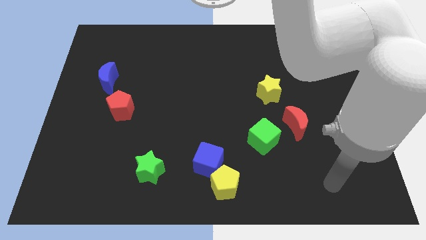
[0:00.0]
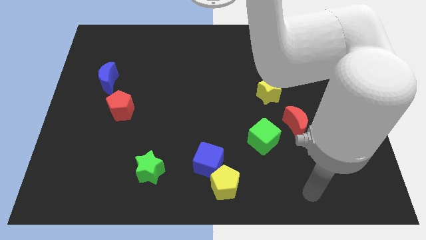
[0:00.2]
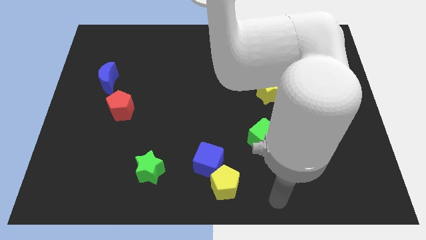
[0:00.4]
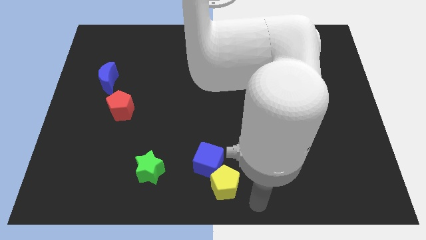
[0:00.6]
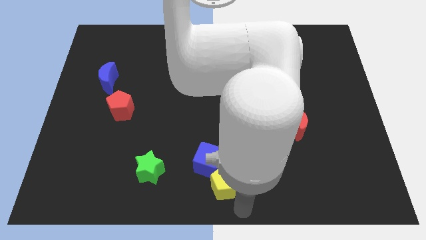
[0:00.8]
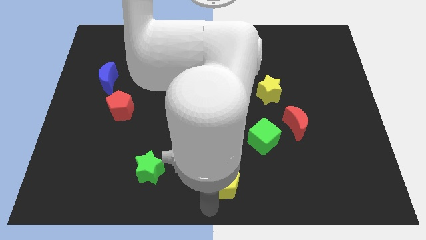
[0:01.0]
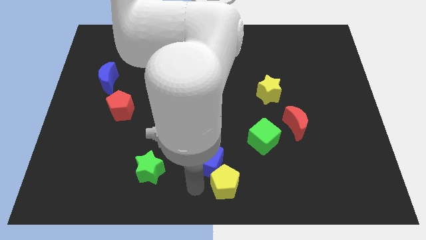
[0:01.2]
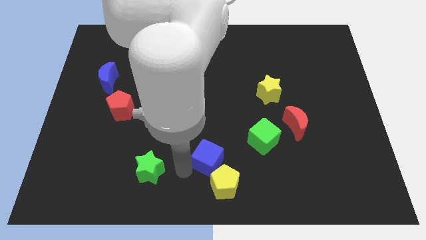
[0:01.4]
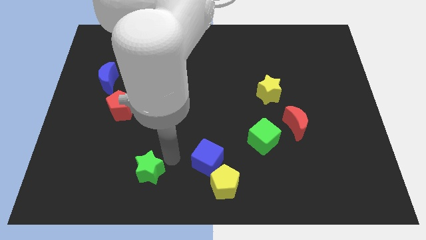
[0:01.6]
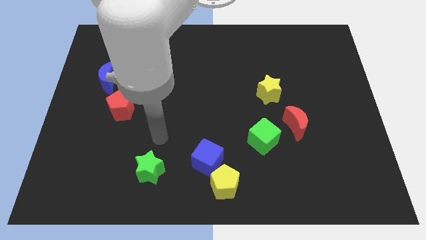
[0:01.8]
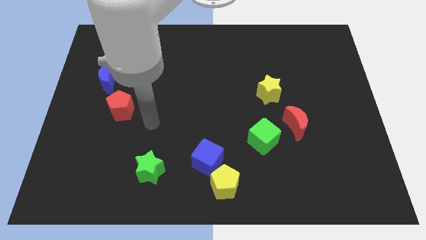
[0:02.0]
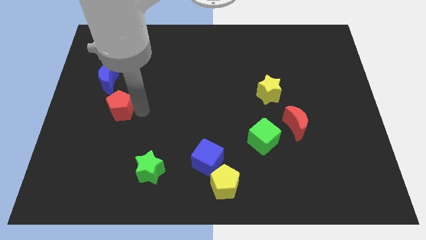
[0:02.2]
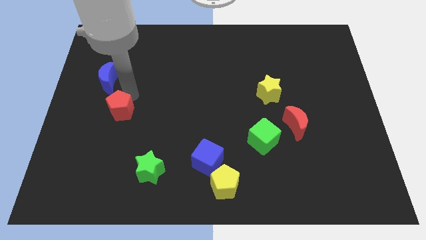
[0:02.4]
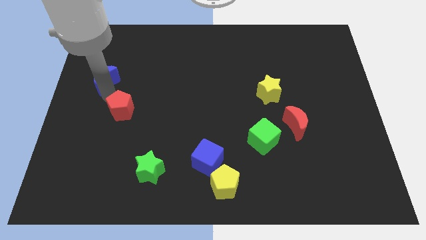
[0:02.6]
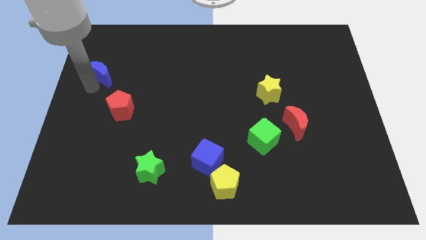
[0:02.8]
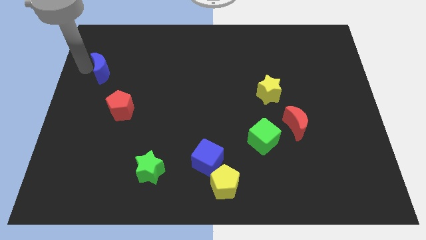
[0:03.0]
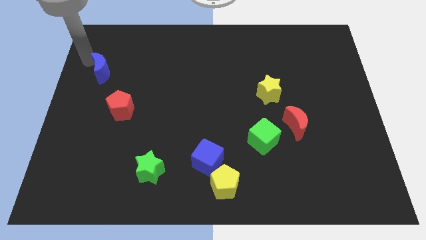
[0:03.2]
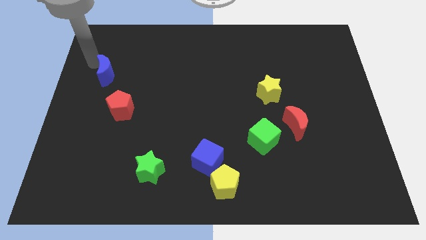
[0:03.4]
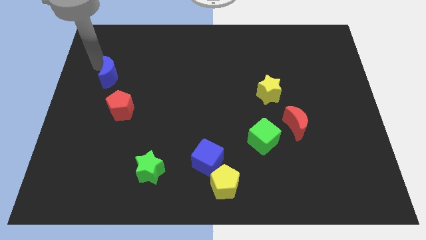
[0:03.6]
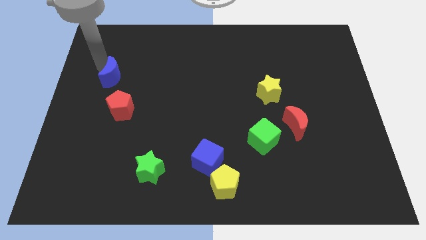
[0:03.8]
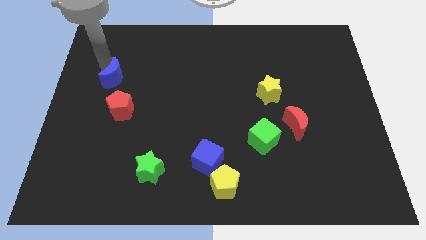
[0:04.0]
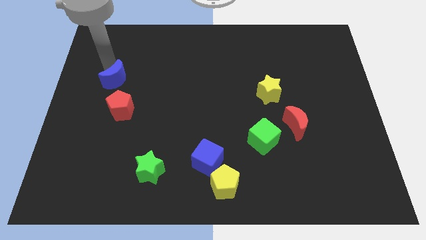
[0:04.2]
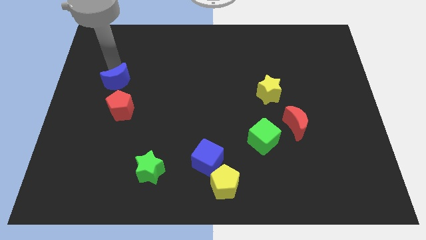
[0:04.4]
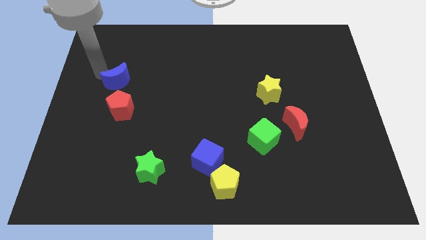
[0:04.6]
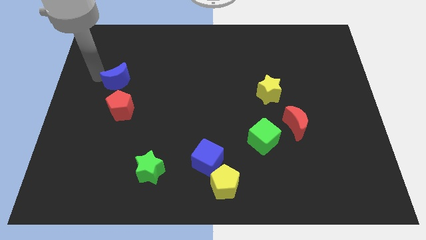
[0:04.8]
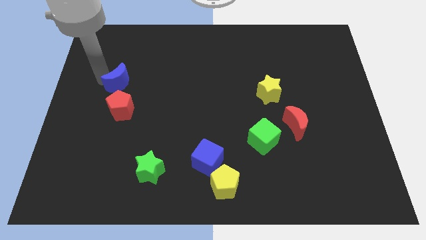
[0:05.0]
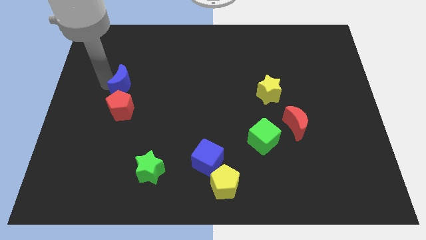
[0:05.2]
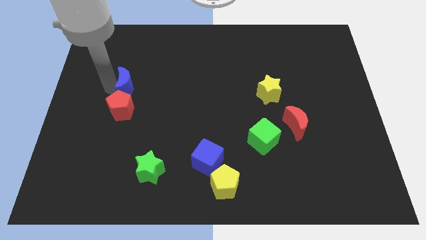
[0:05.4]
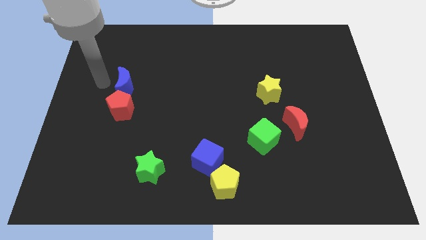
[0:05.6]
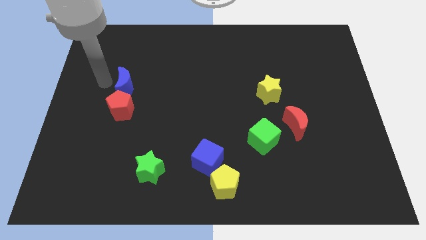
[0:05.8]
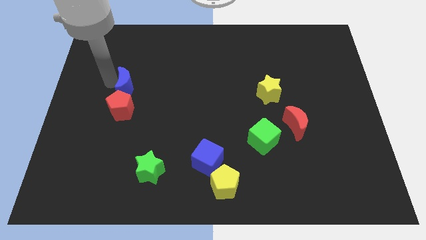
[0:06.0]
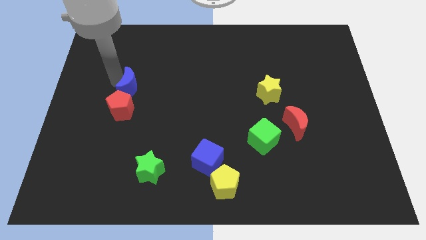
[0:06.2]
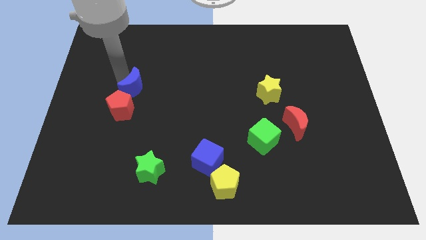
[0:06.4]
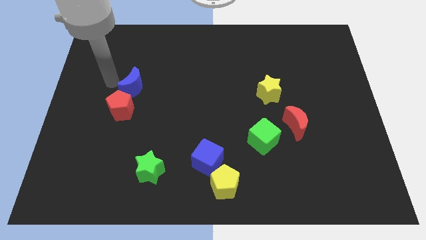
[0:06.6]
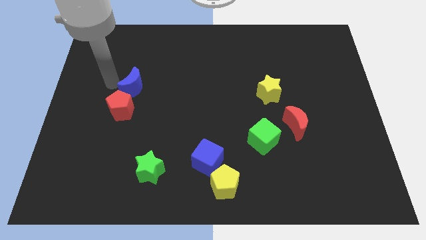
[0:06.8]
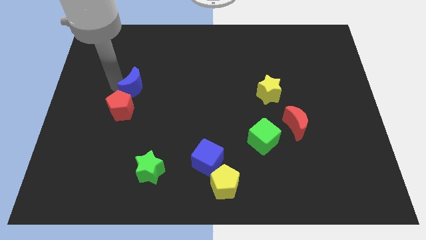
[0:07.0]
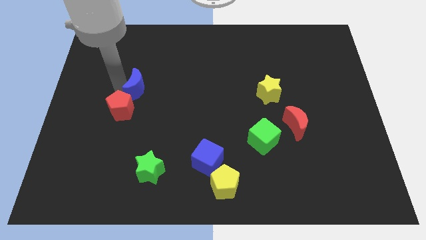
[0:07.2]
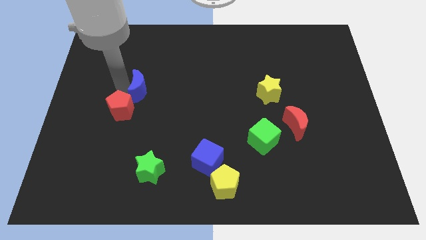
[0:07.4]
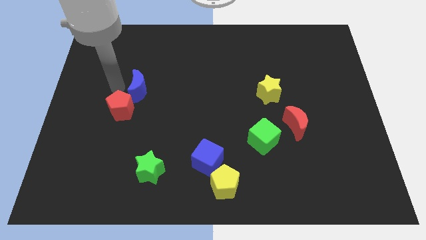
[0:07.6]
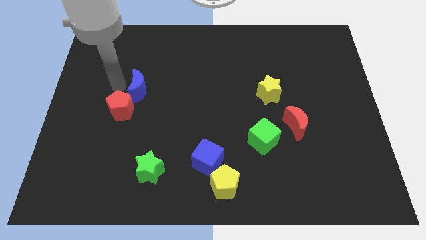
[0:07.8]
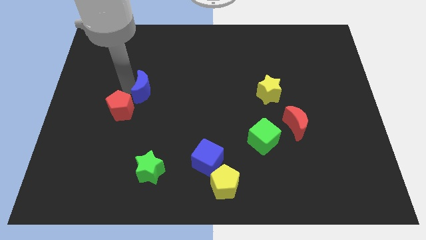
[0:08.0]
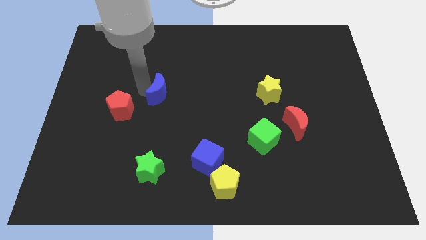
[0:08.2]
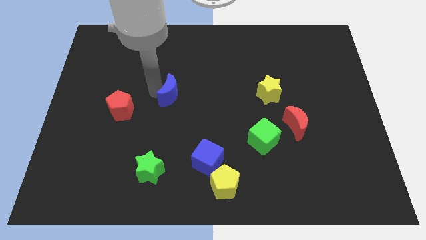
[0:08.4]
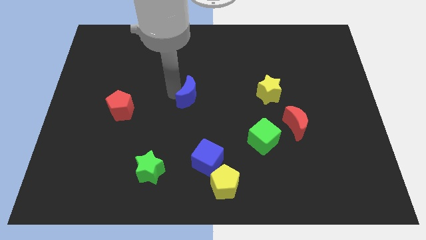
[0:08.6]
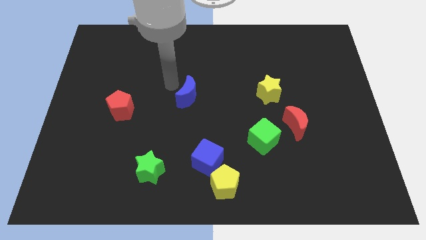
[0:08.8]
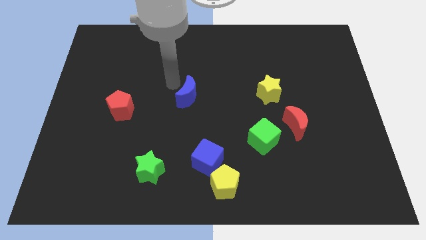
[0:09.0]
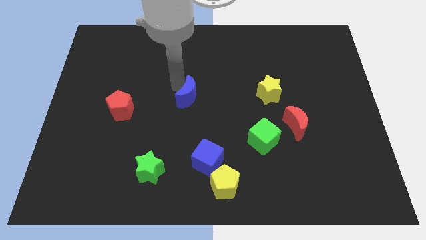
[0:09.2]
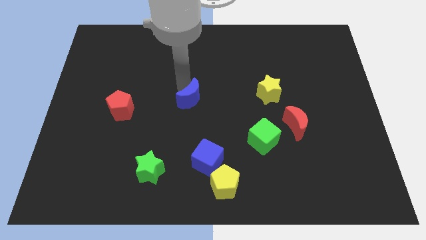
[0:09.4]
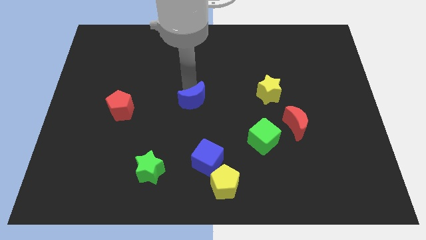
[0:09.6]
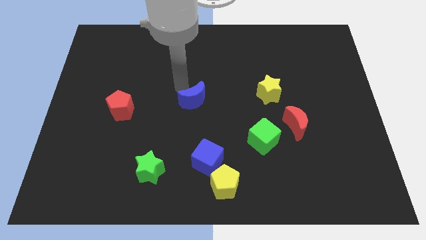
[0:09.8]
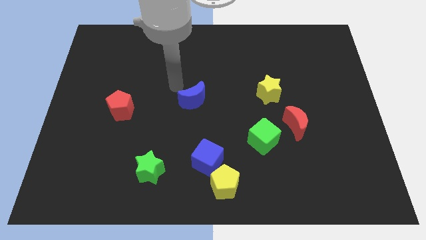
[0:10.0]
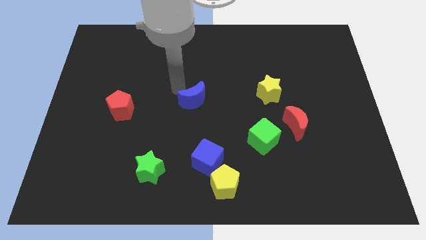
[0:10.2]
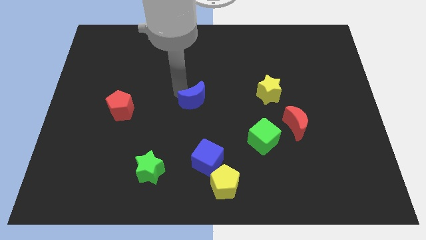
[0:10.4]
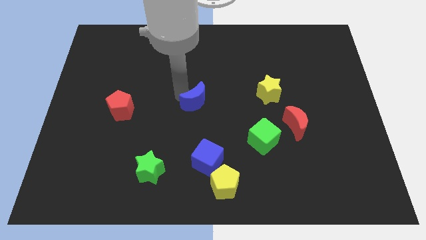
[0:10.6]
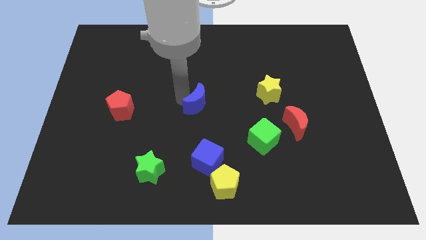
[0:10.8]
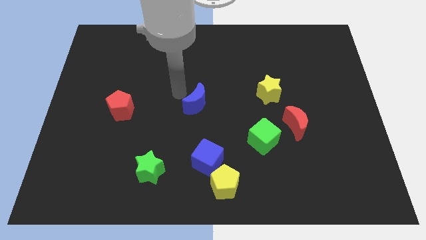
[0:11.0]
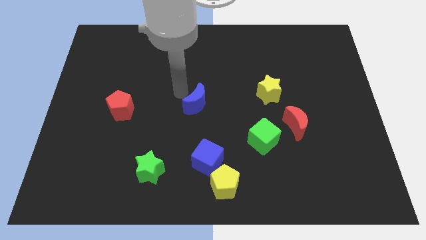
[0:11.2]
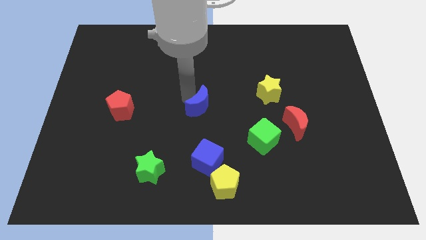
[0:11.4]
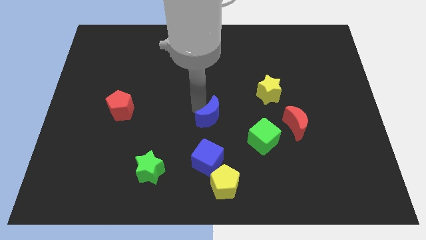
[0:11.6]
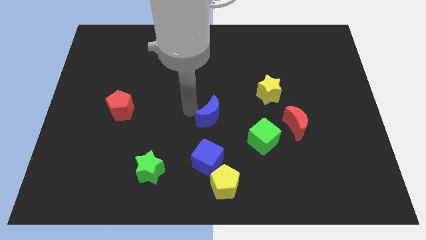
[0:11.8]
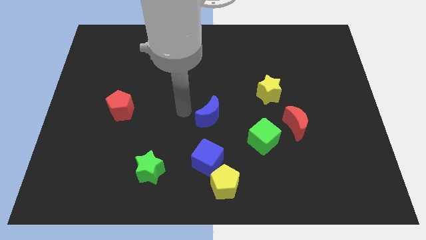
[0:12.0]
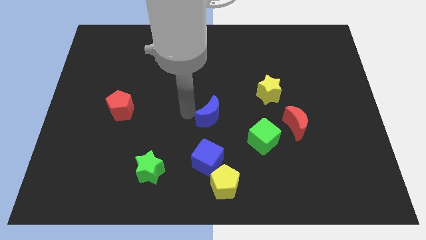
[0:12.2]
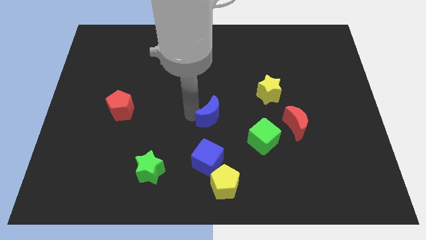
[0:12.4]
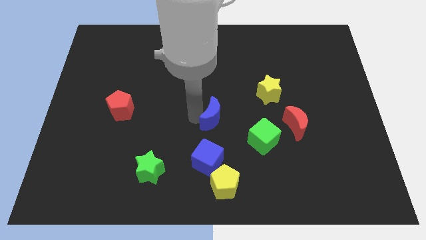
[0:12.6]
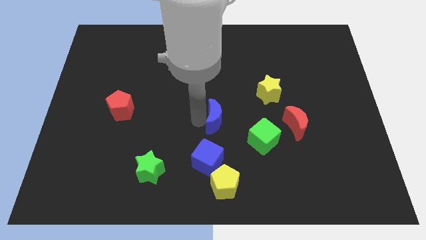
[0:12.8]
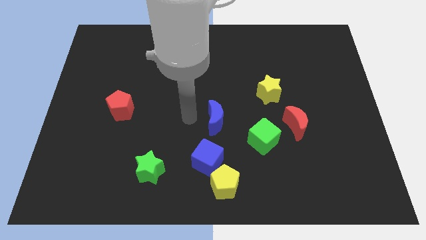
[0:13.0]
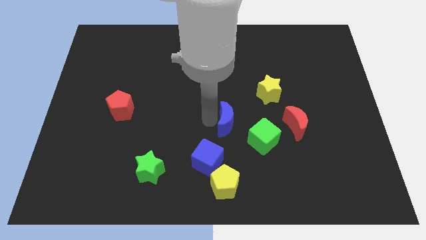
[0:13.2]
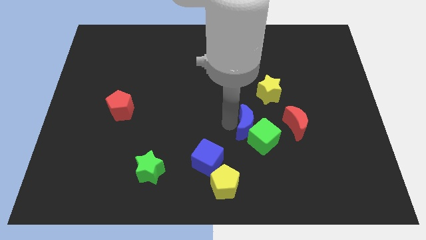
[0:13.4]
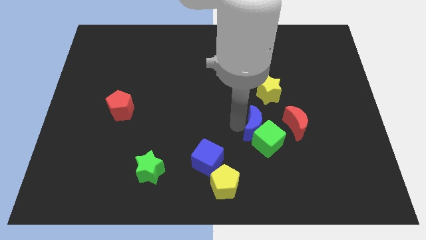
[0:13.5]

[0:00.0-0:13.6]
slide the blue moon to the bottom of the yellow star
